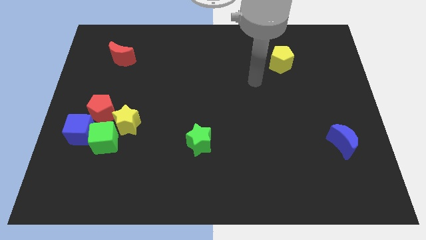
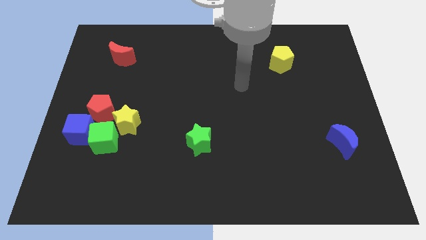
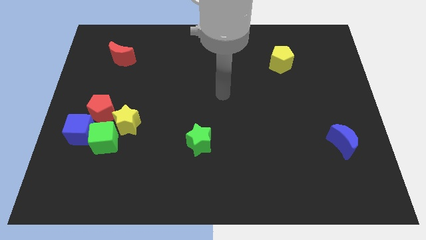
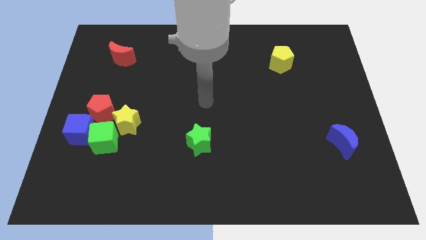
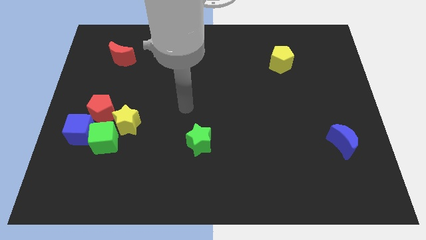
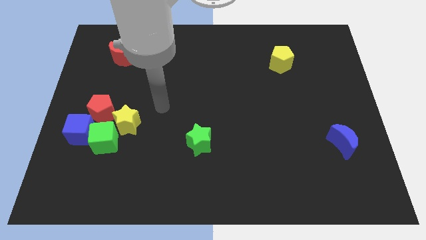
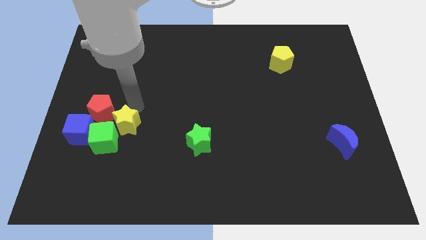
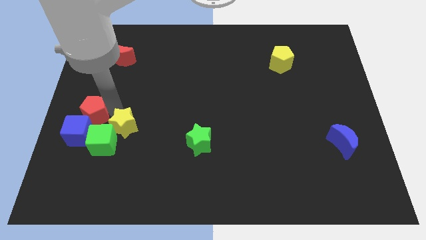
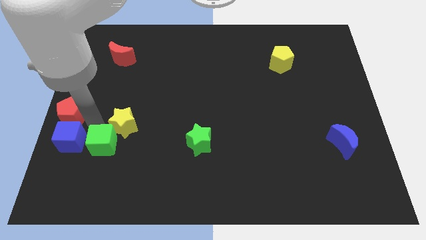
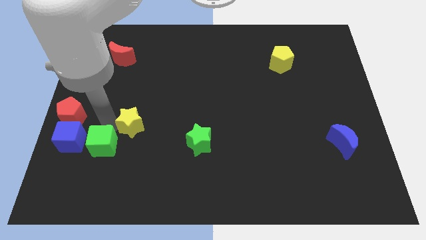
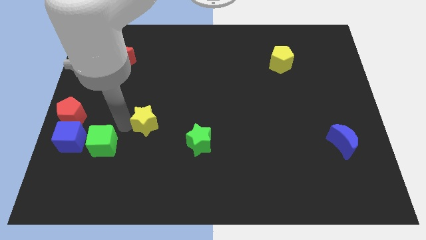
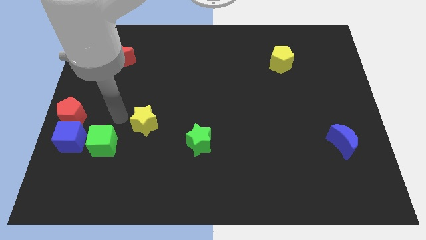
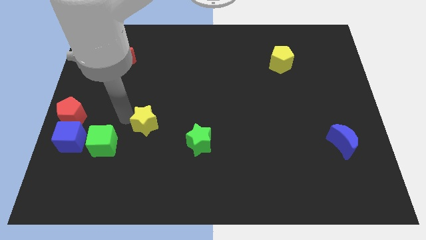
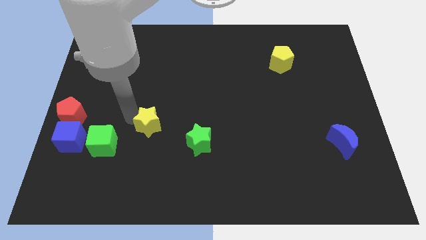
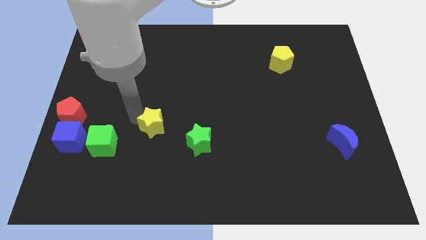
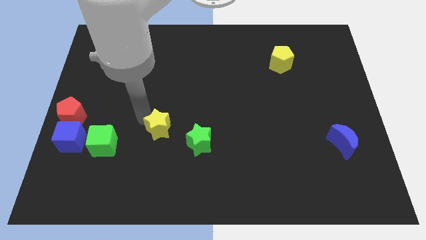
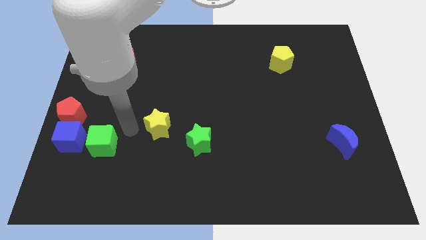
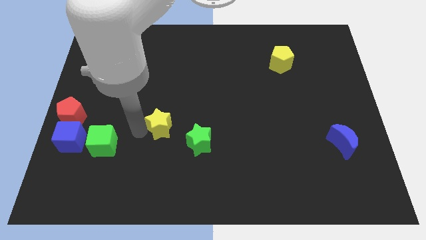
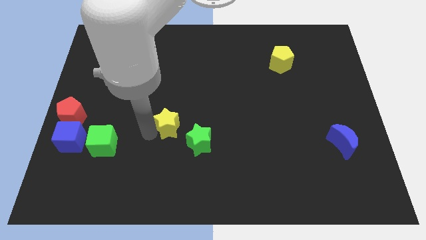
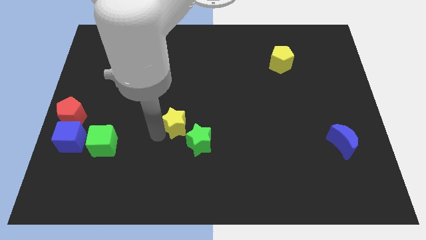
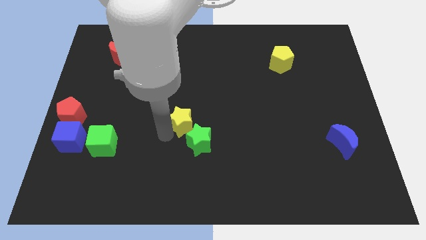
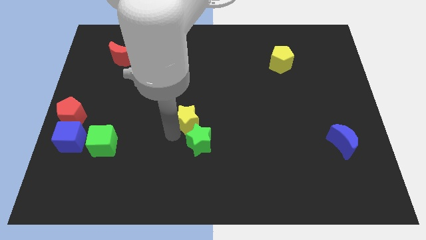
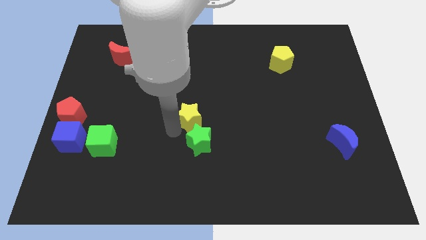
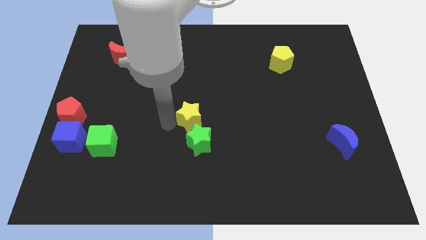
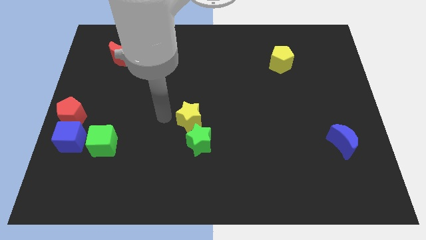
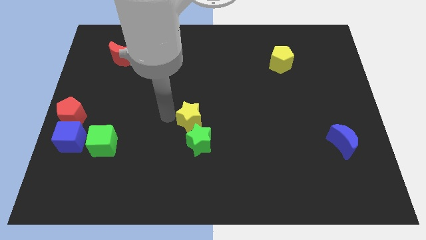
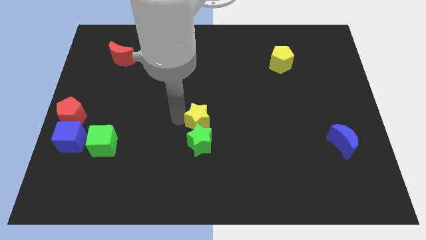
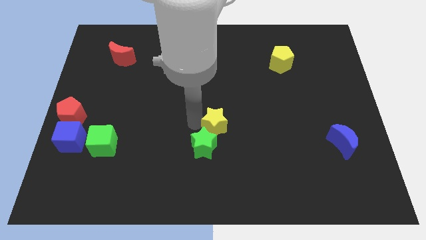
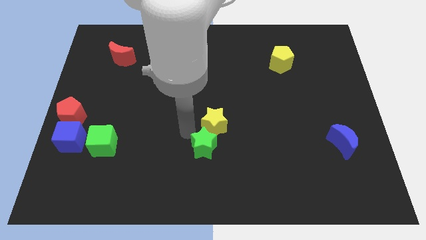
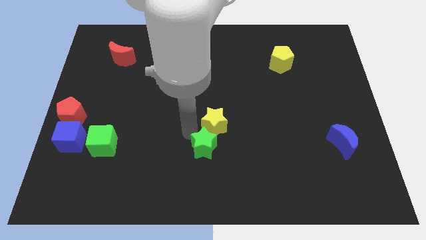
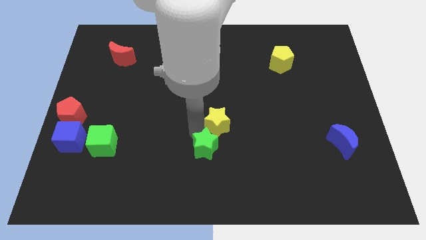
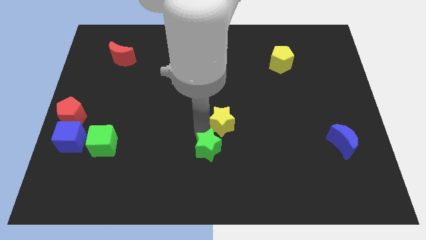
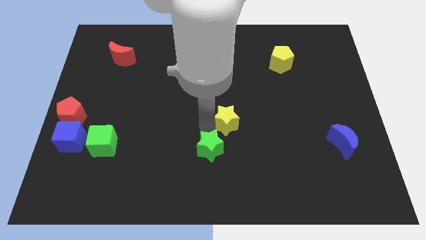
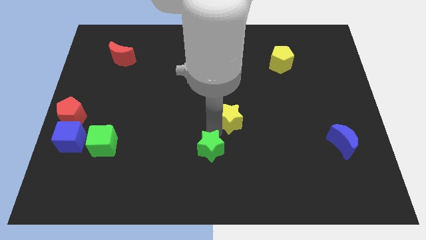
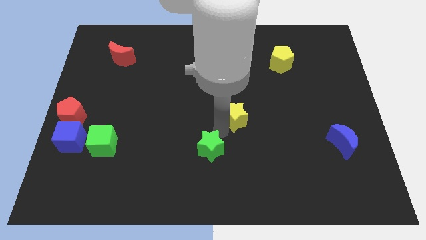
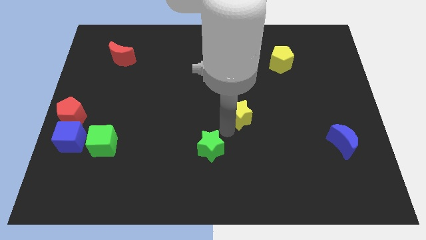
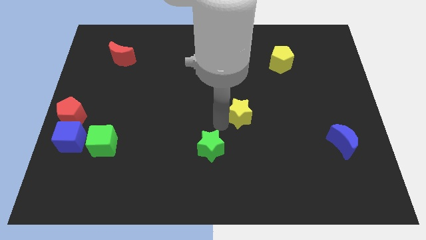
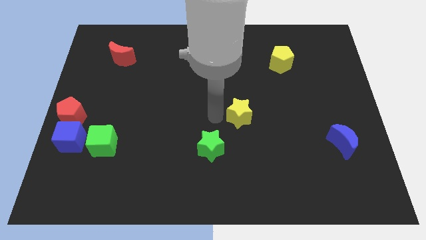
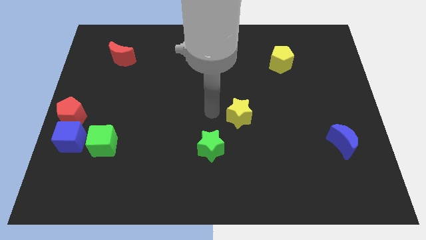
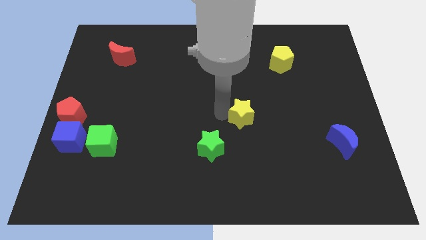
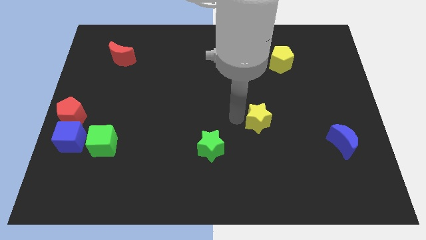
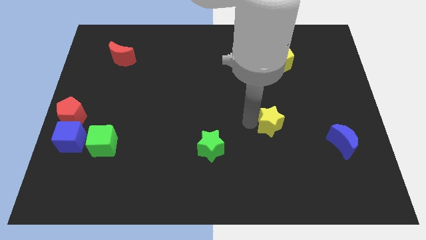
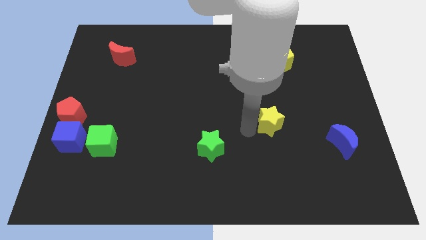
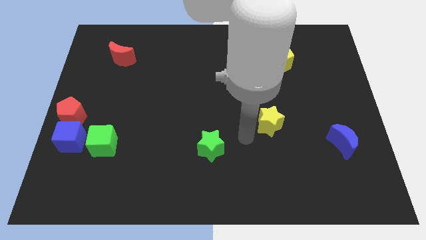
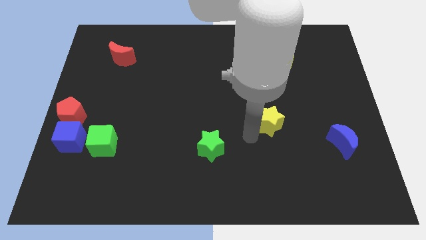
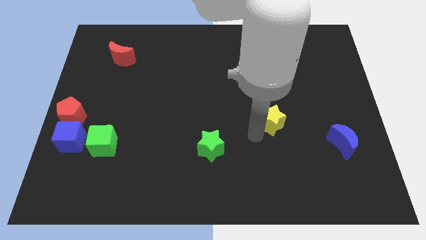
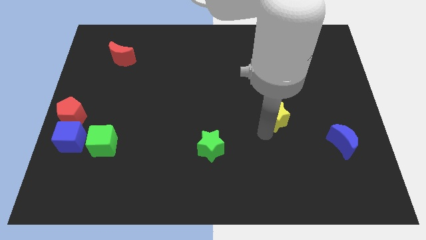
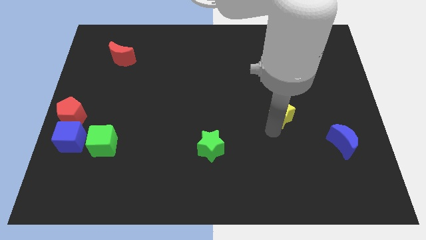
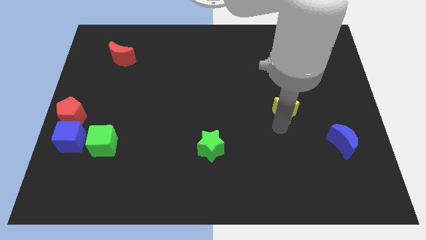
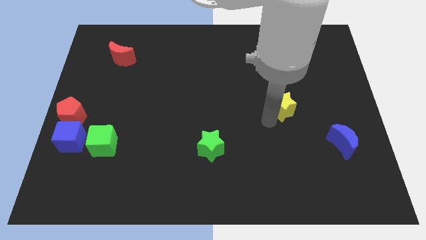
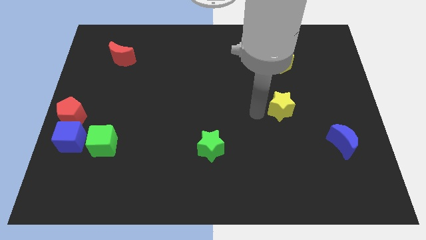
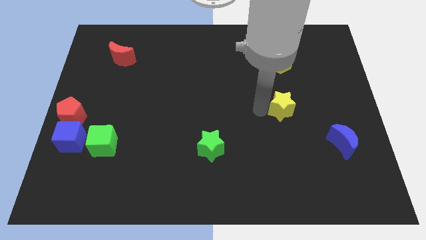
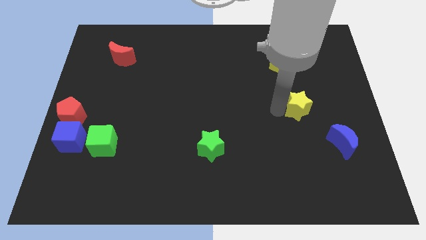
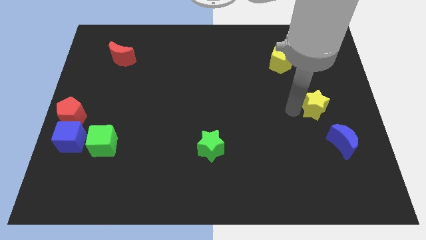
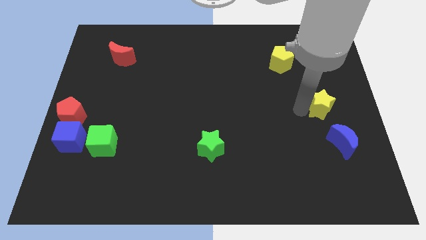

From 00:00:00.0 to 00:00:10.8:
slide the yellow star to the right side of the board

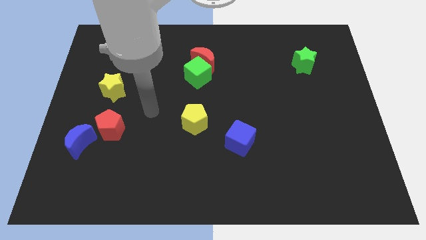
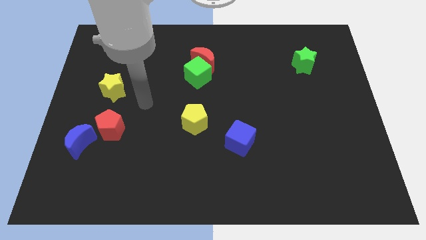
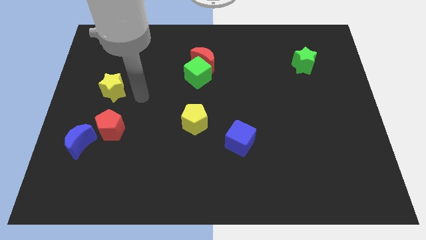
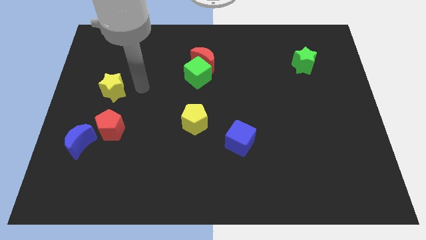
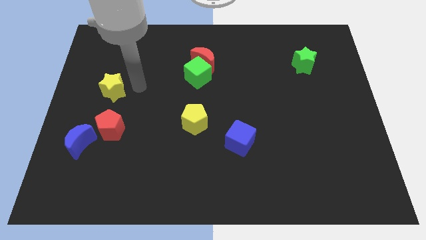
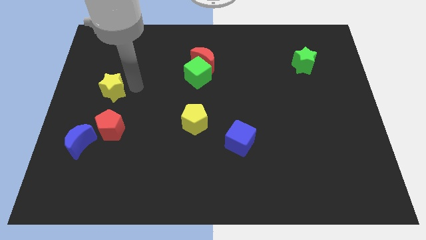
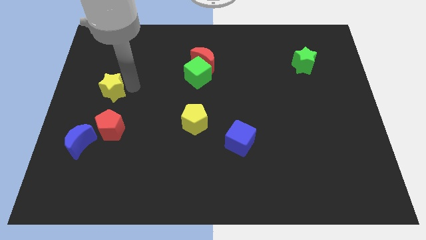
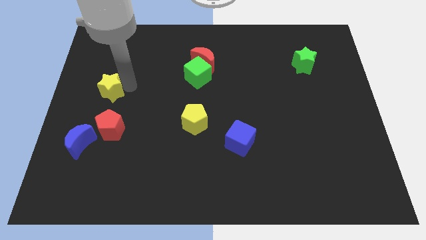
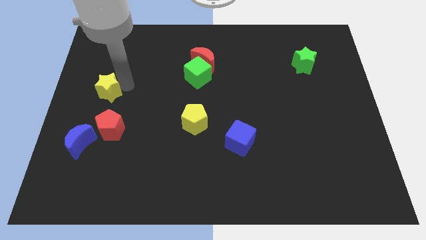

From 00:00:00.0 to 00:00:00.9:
move the yellow star to the center left

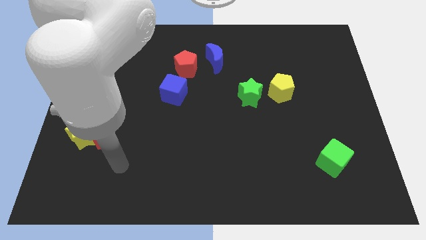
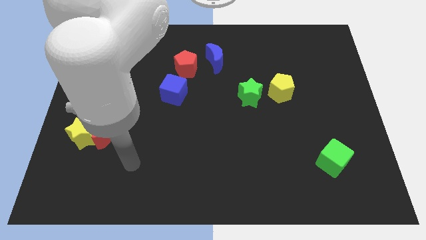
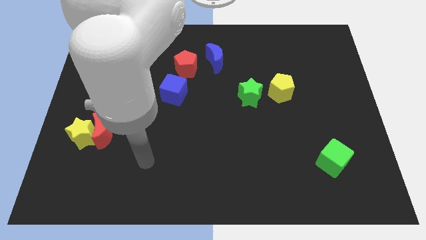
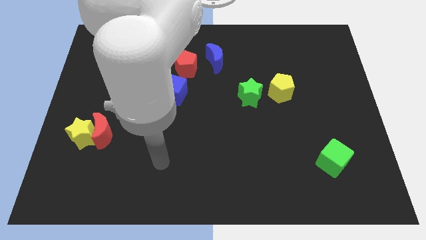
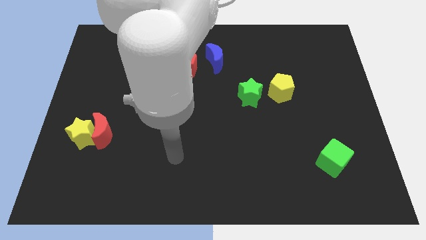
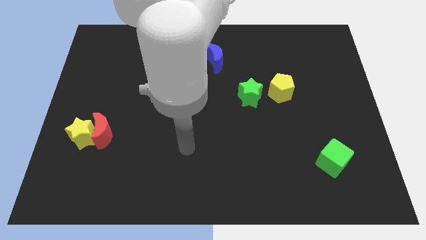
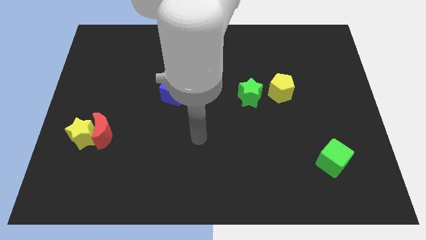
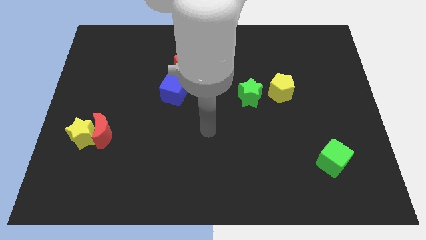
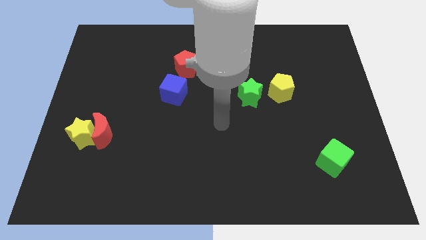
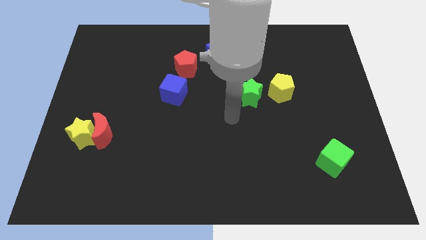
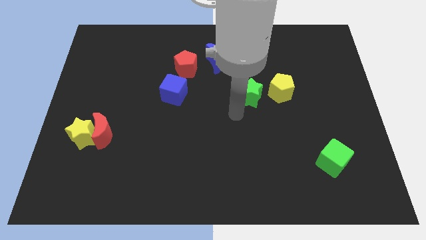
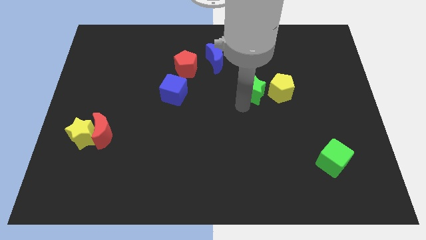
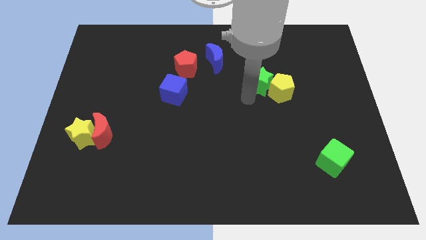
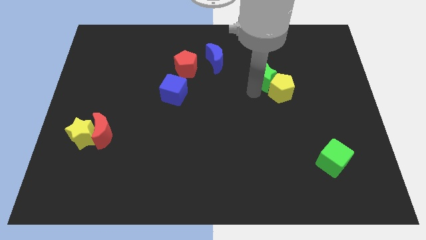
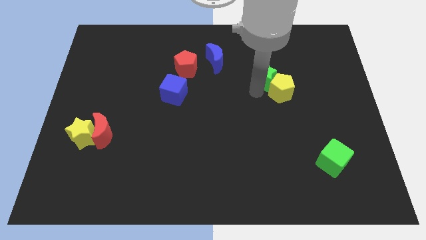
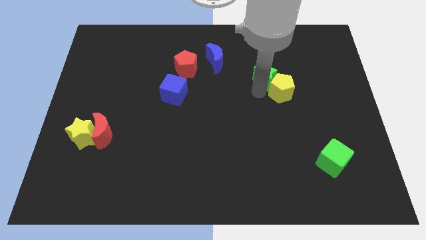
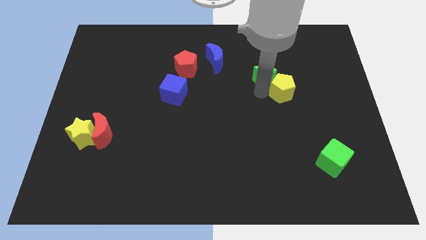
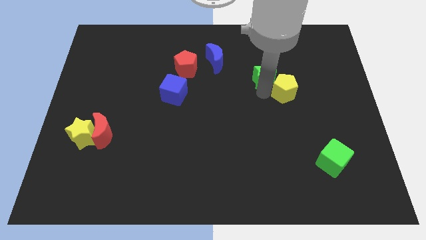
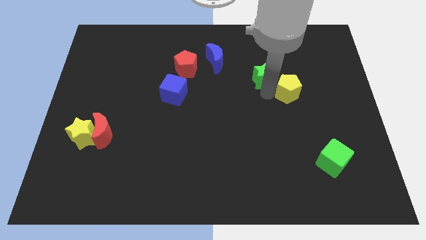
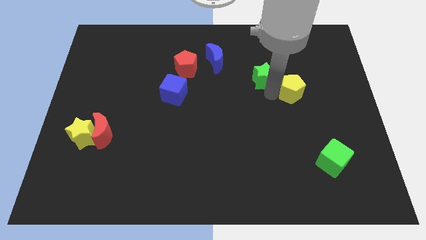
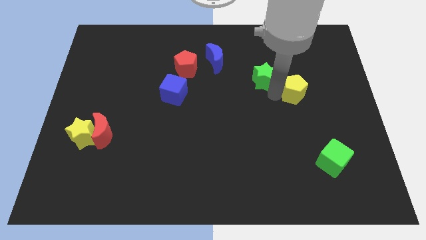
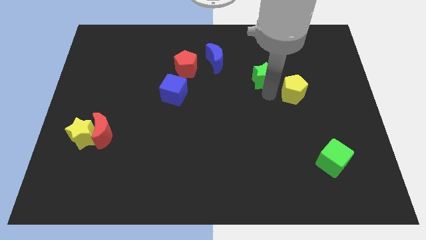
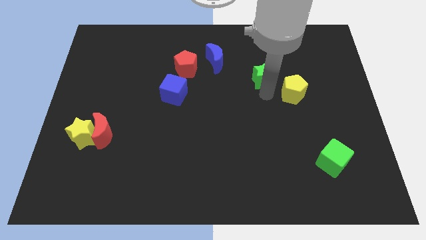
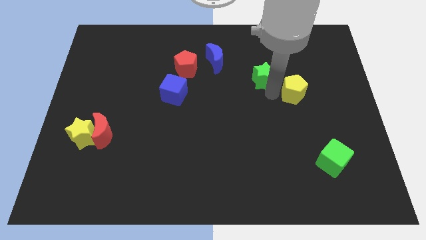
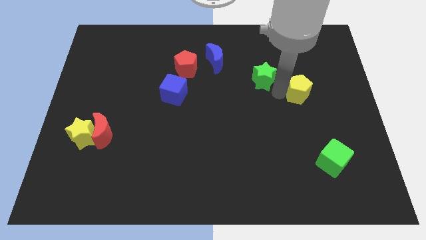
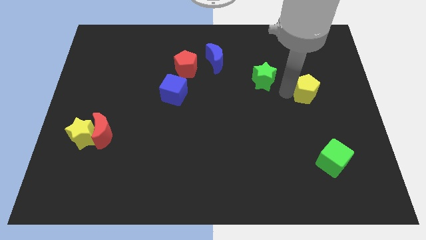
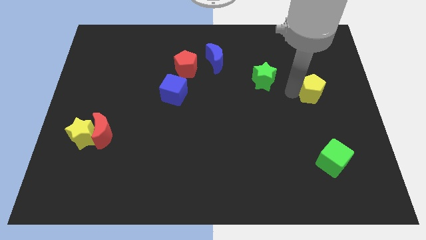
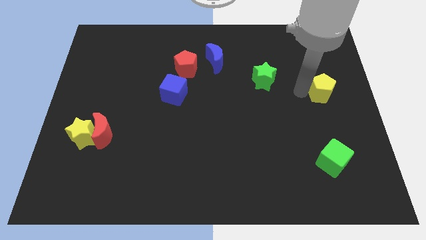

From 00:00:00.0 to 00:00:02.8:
put the yellow pentagon to the center right
